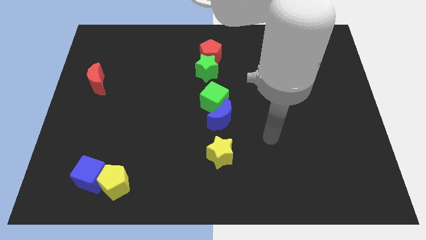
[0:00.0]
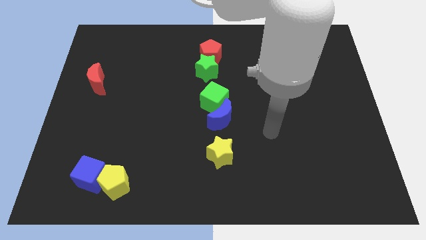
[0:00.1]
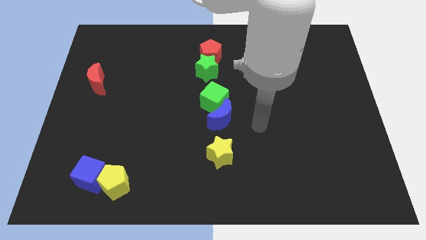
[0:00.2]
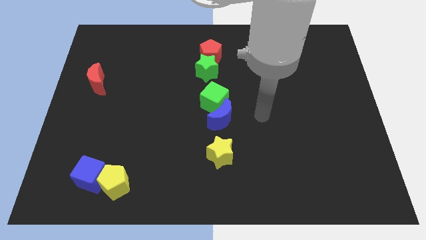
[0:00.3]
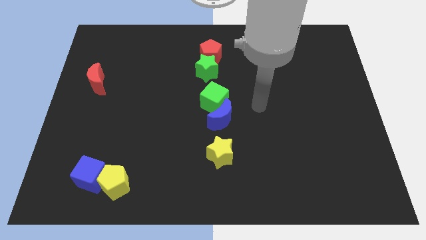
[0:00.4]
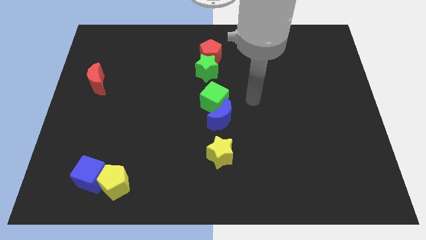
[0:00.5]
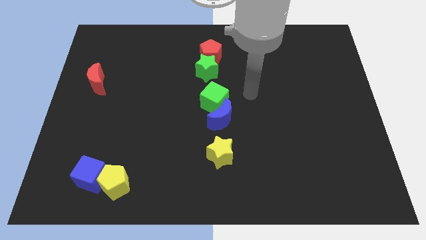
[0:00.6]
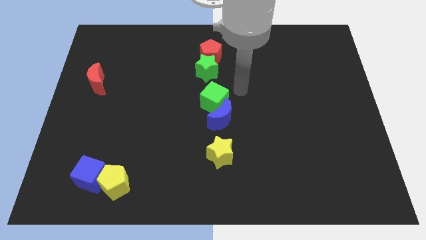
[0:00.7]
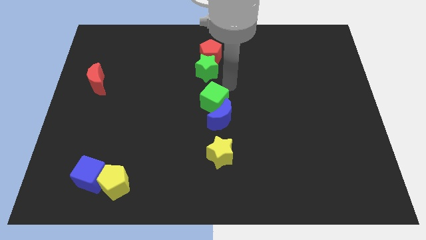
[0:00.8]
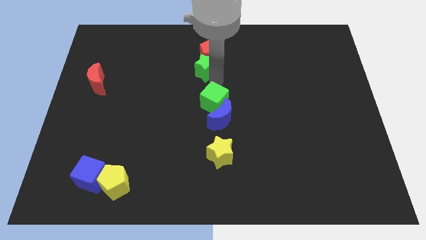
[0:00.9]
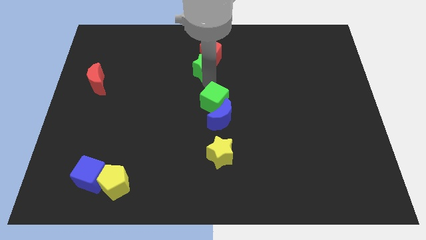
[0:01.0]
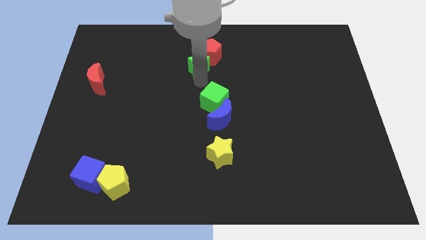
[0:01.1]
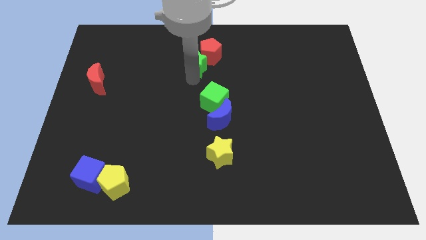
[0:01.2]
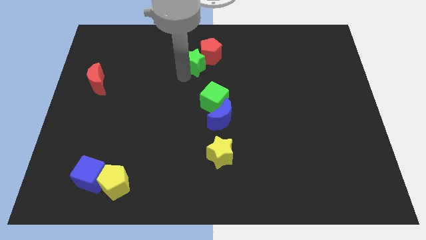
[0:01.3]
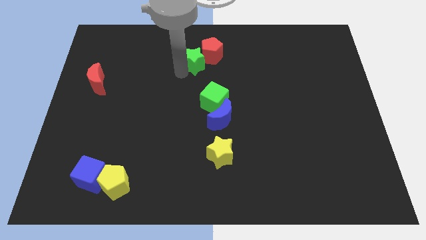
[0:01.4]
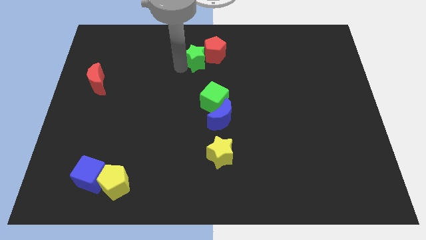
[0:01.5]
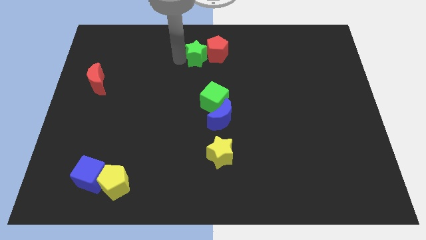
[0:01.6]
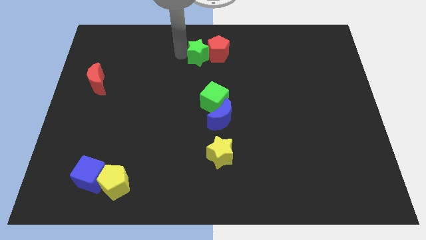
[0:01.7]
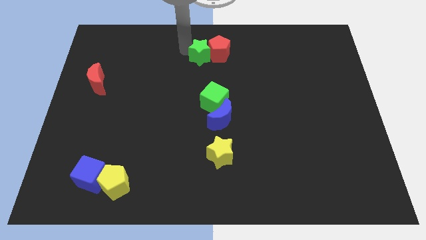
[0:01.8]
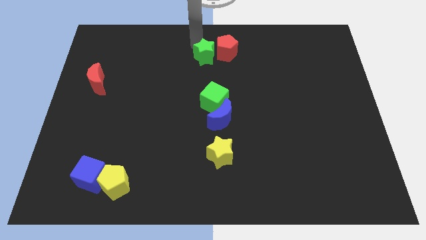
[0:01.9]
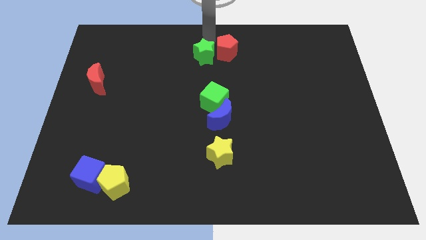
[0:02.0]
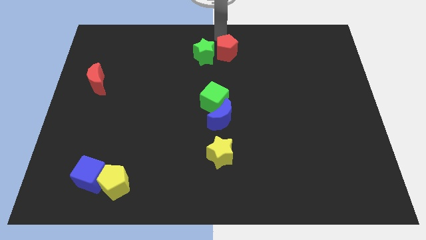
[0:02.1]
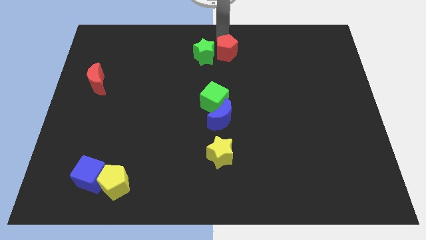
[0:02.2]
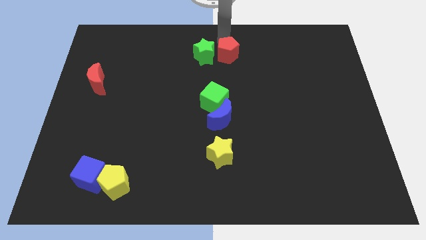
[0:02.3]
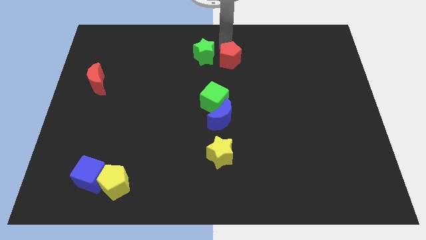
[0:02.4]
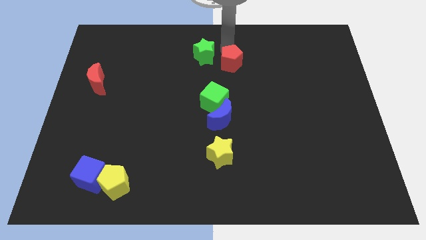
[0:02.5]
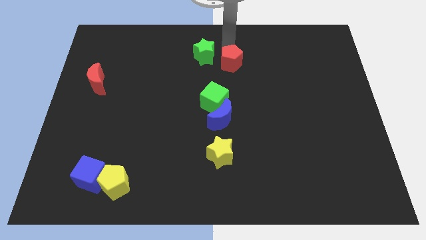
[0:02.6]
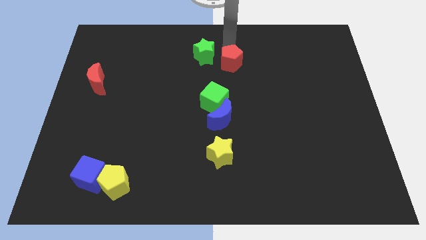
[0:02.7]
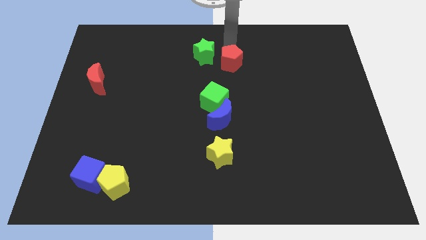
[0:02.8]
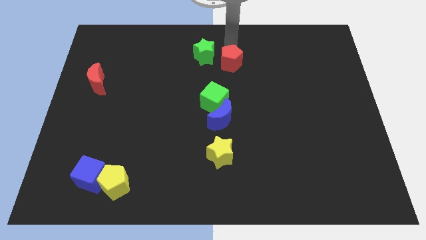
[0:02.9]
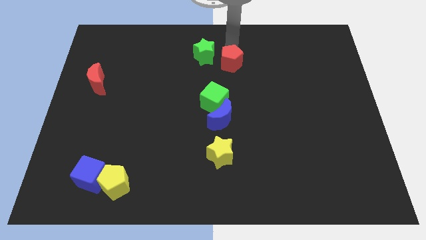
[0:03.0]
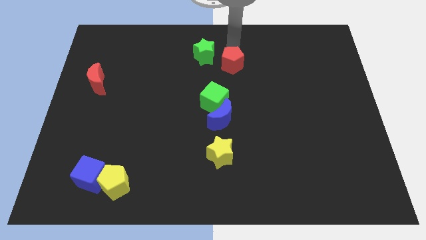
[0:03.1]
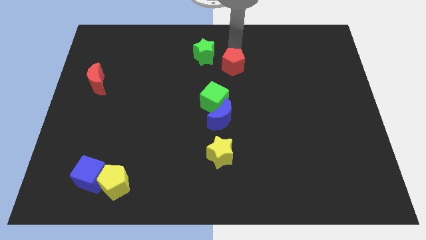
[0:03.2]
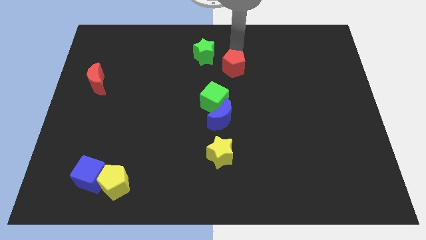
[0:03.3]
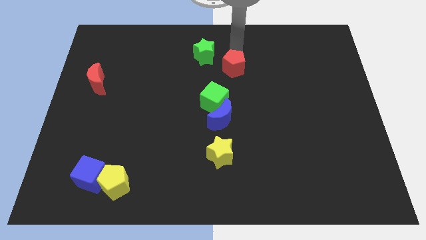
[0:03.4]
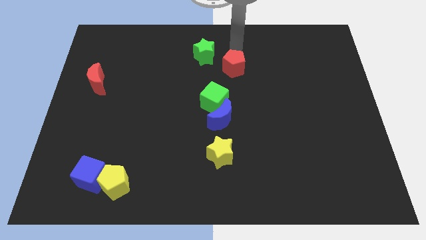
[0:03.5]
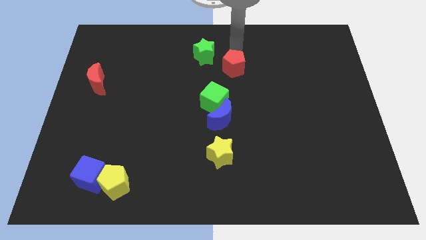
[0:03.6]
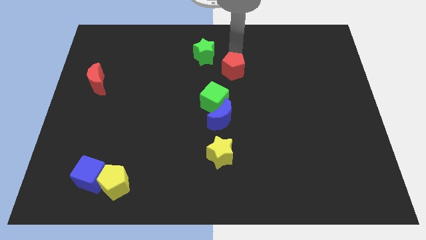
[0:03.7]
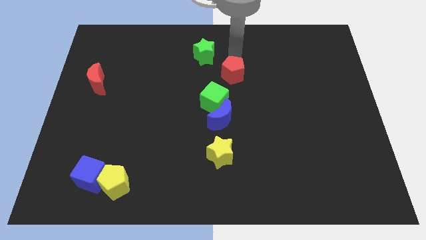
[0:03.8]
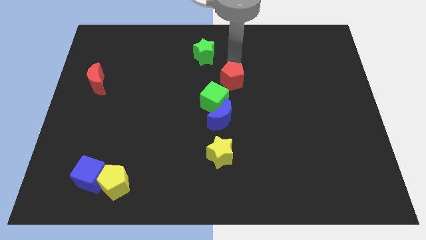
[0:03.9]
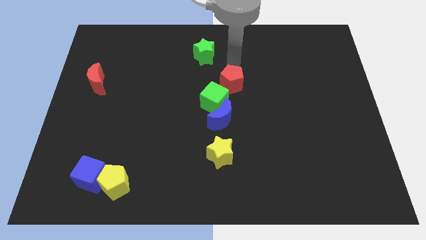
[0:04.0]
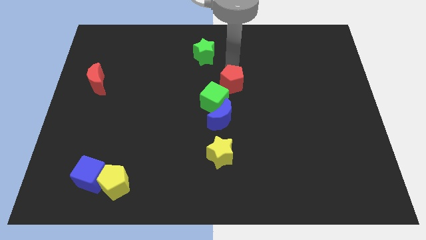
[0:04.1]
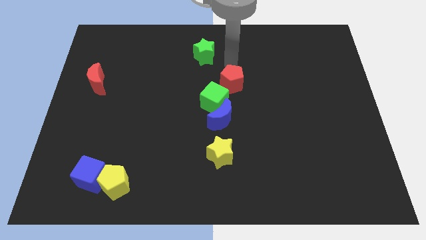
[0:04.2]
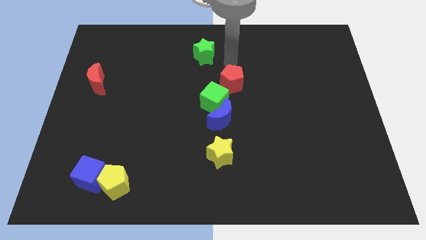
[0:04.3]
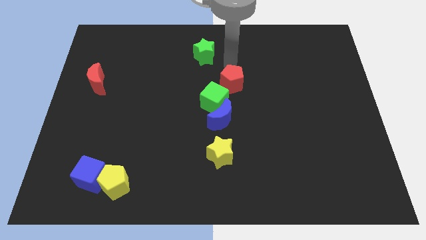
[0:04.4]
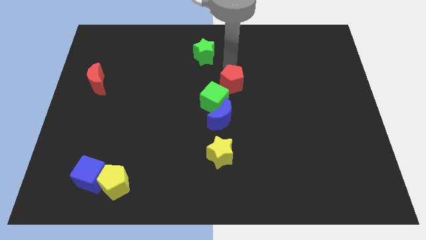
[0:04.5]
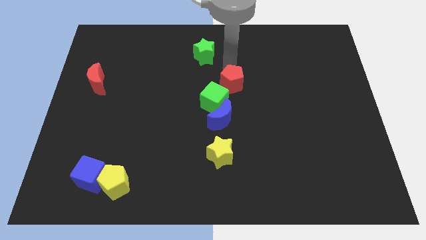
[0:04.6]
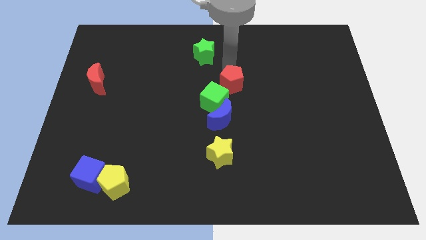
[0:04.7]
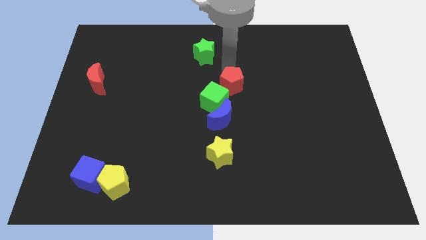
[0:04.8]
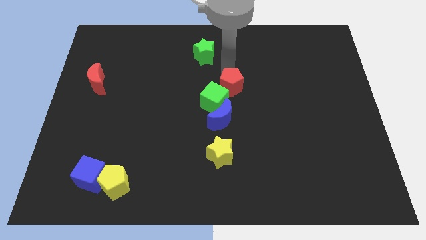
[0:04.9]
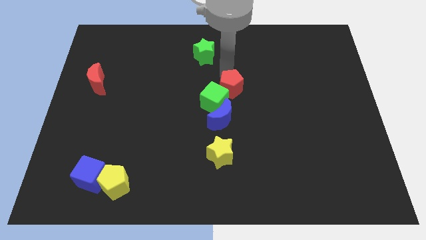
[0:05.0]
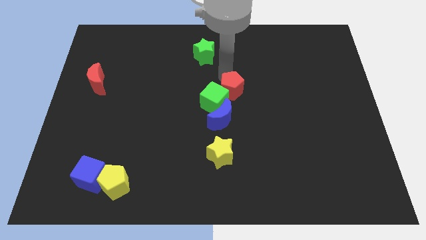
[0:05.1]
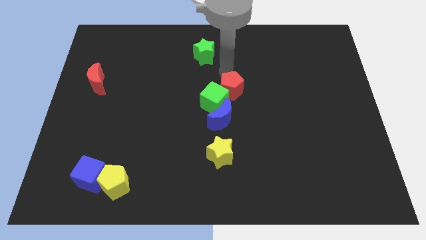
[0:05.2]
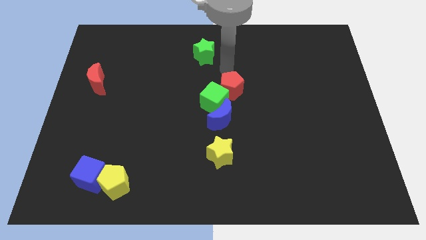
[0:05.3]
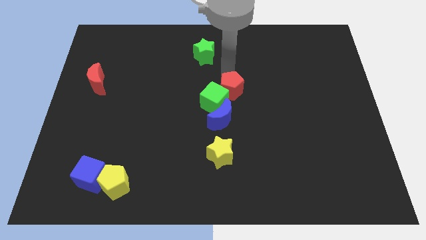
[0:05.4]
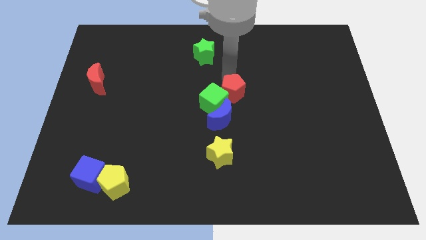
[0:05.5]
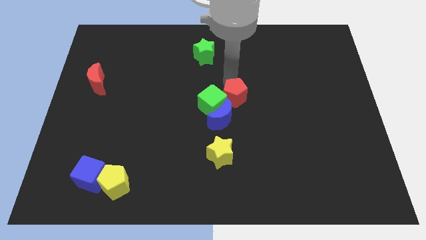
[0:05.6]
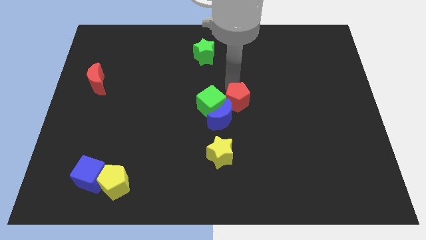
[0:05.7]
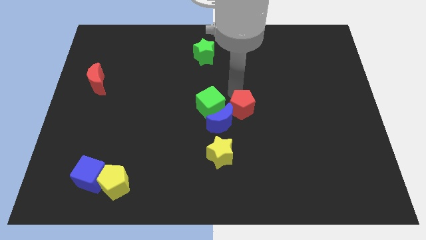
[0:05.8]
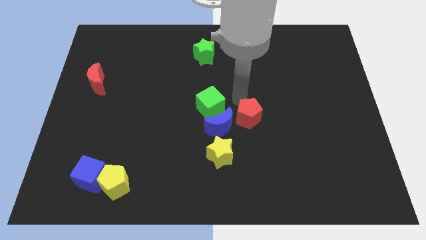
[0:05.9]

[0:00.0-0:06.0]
slide the red pentagon to the top right side of the yellow star

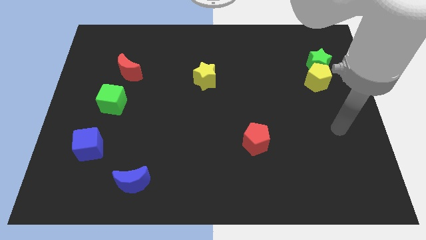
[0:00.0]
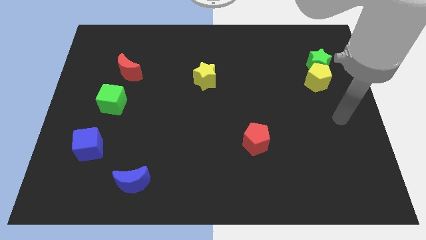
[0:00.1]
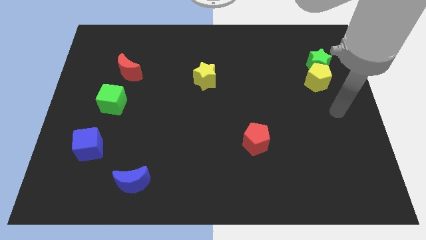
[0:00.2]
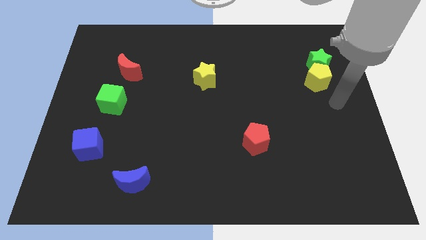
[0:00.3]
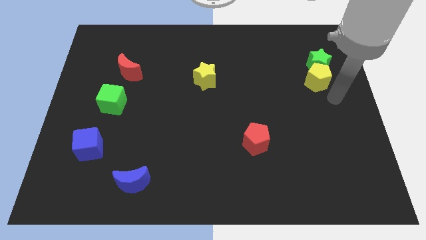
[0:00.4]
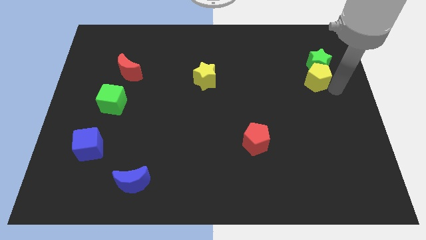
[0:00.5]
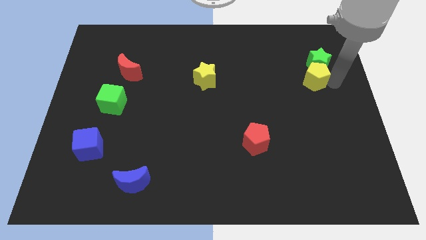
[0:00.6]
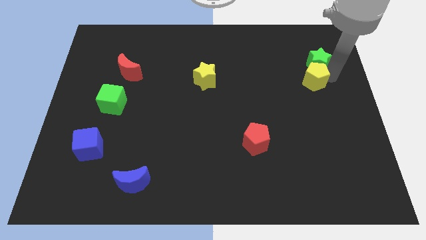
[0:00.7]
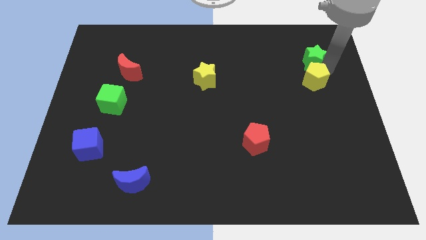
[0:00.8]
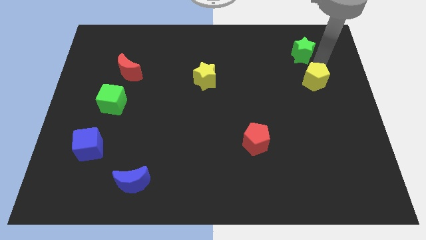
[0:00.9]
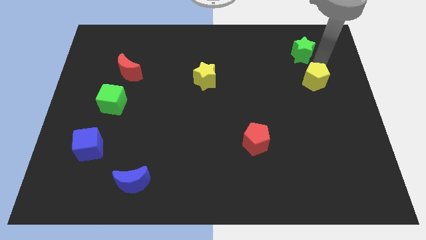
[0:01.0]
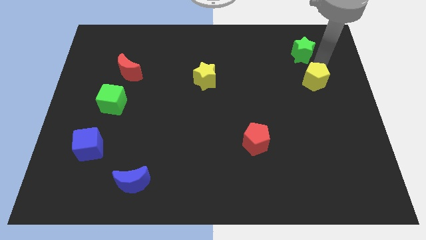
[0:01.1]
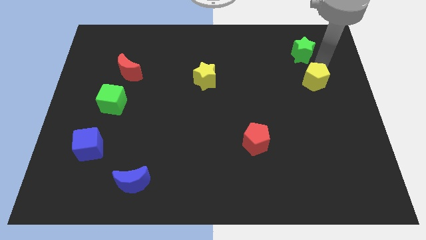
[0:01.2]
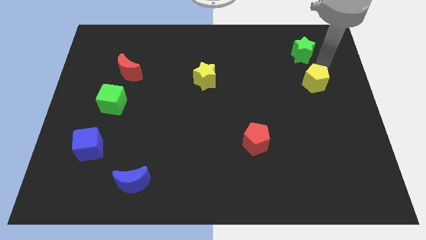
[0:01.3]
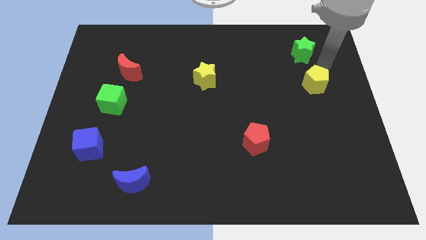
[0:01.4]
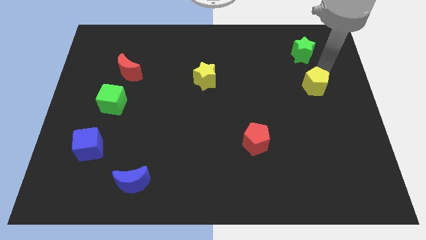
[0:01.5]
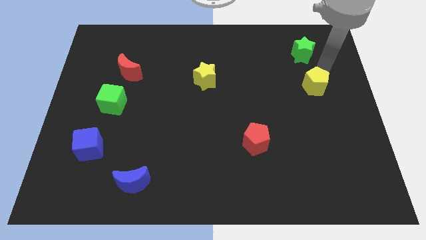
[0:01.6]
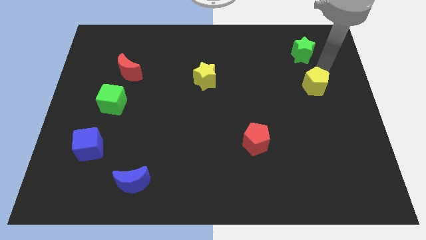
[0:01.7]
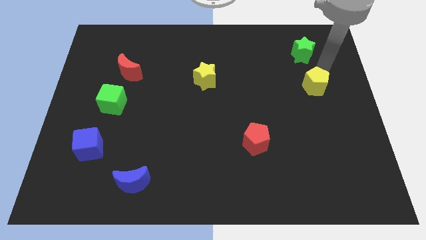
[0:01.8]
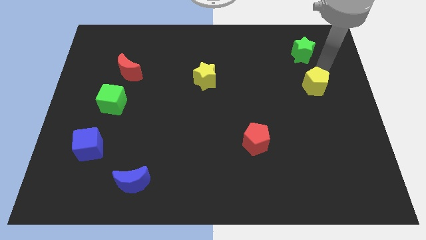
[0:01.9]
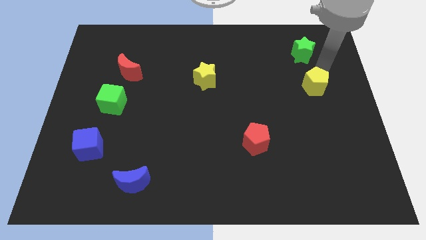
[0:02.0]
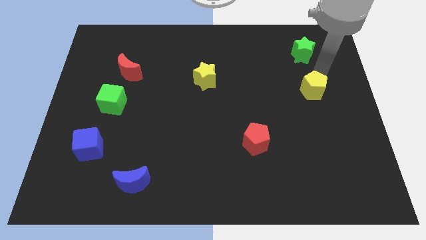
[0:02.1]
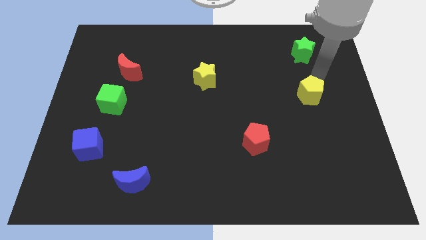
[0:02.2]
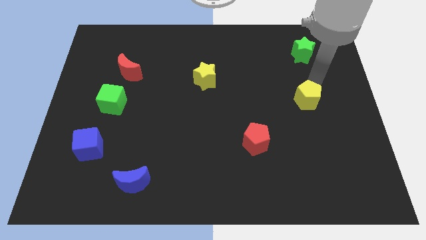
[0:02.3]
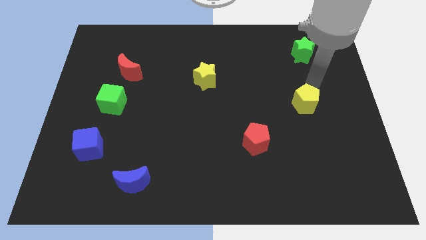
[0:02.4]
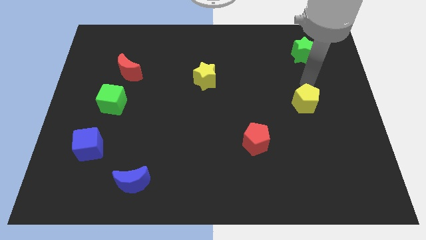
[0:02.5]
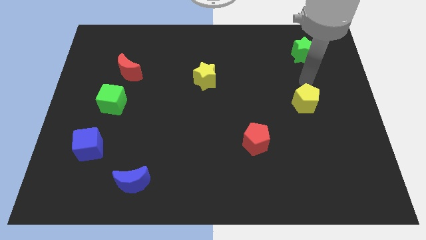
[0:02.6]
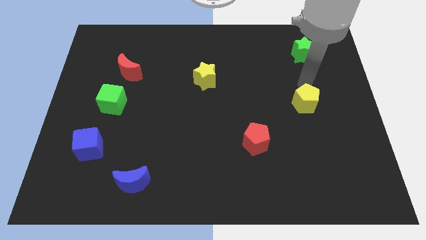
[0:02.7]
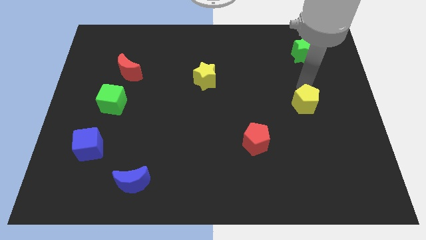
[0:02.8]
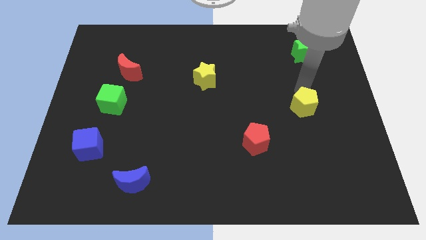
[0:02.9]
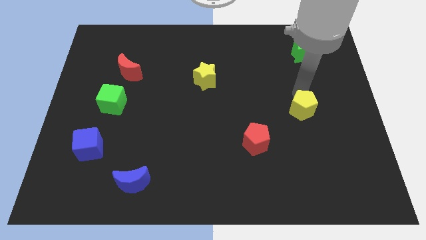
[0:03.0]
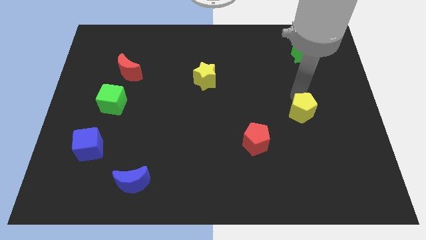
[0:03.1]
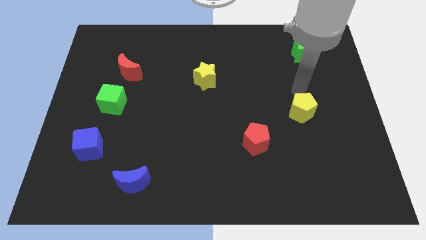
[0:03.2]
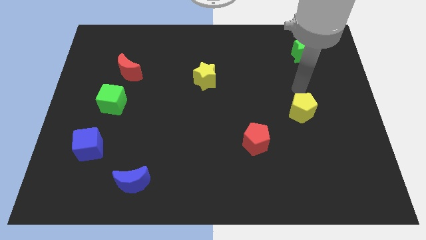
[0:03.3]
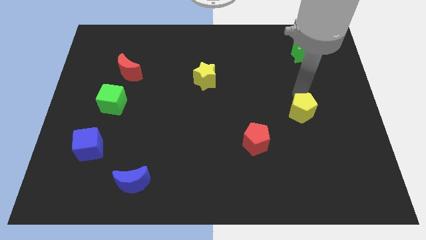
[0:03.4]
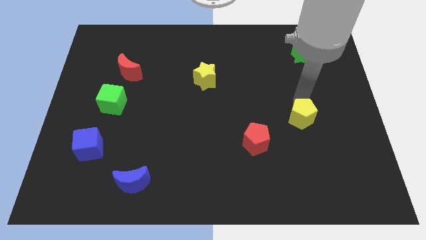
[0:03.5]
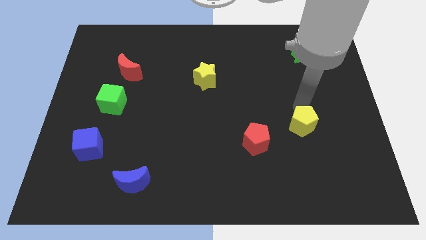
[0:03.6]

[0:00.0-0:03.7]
move the yellow pentagon just right of the red pentagon
